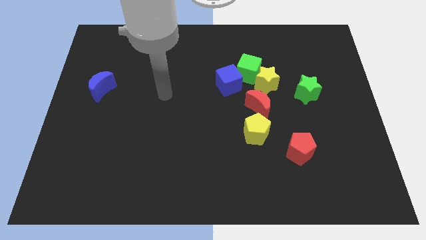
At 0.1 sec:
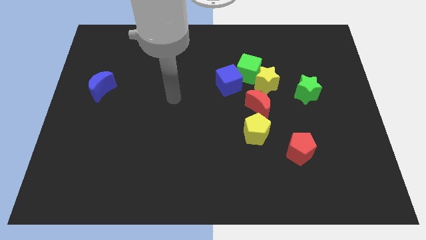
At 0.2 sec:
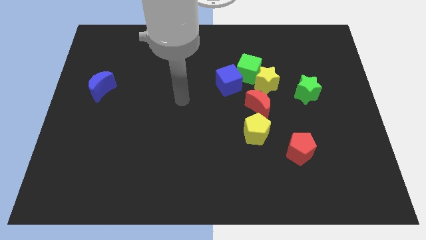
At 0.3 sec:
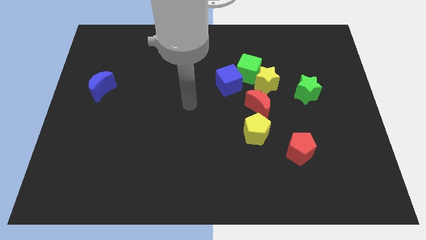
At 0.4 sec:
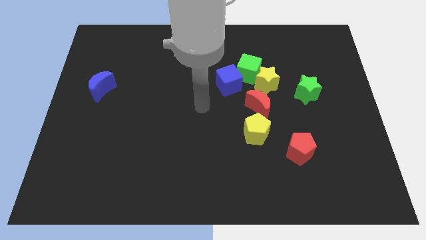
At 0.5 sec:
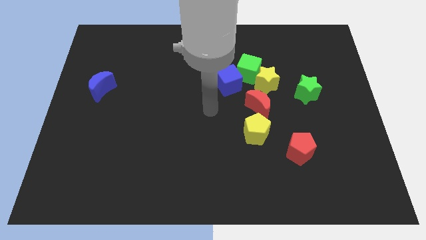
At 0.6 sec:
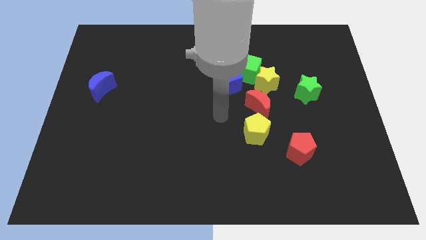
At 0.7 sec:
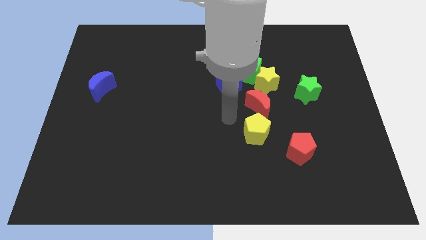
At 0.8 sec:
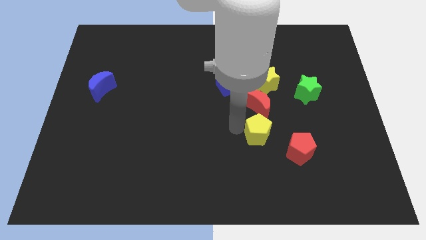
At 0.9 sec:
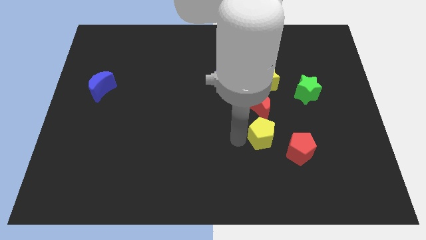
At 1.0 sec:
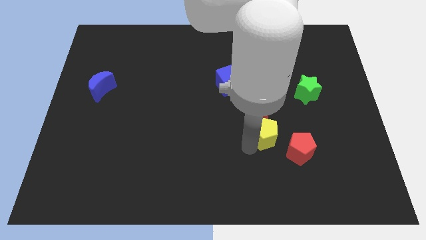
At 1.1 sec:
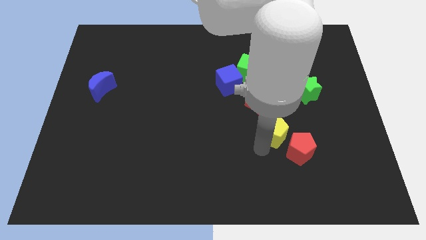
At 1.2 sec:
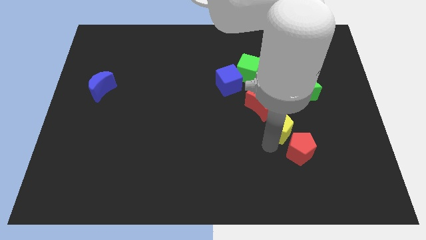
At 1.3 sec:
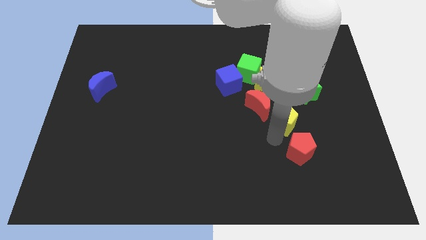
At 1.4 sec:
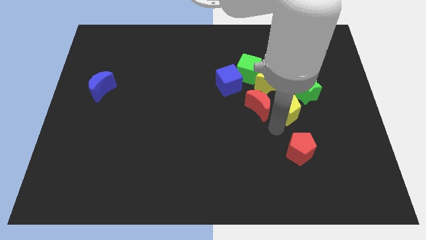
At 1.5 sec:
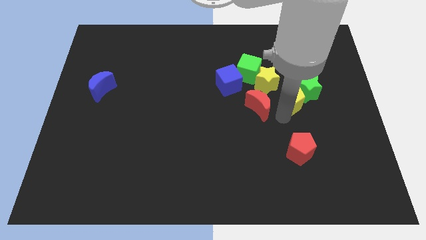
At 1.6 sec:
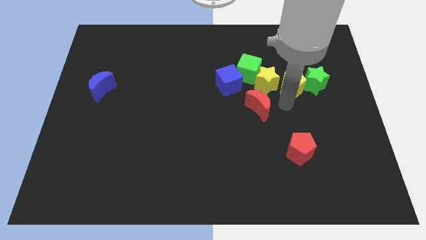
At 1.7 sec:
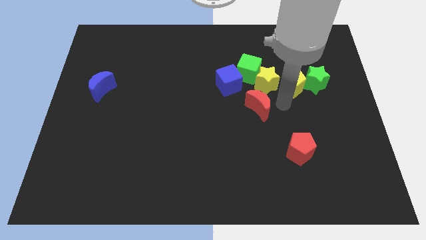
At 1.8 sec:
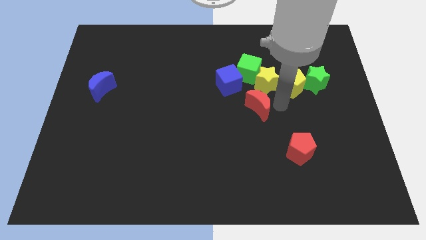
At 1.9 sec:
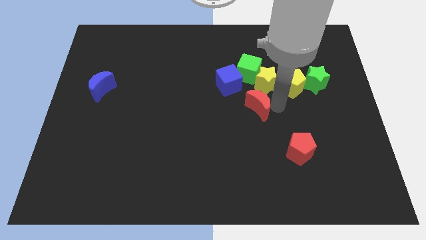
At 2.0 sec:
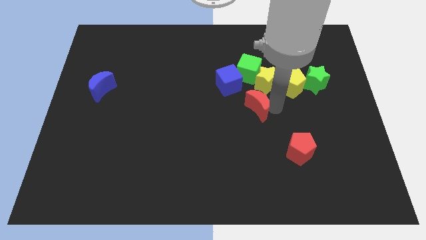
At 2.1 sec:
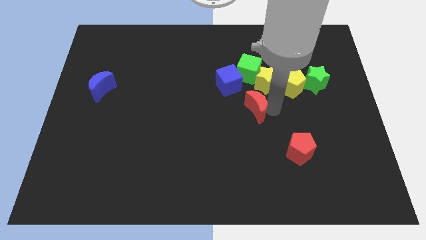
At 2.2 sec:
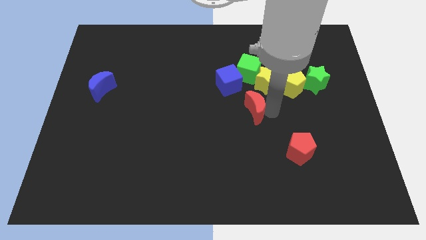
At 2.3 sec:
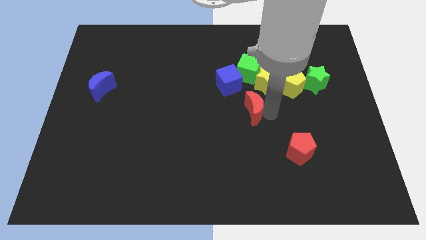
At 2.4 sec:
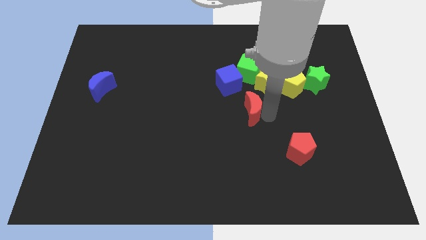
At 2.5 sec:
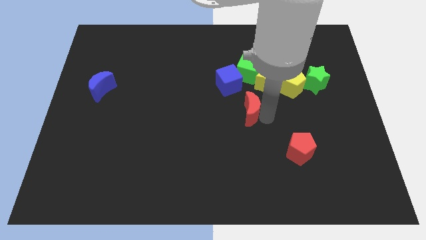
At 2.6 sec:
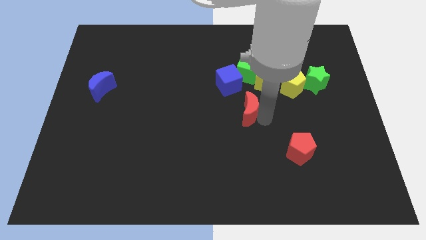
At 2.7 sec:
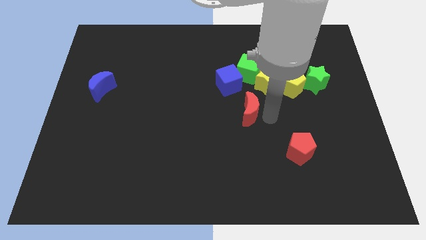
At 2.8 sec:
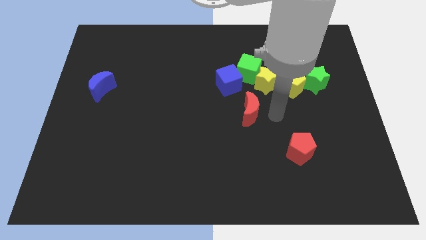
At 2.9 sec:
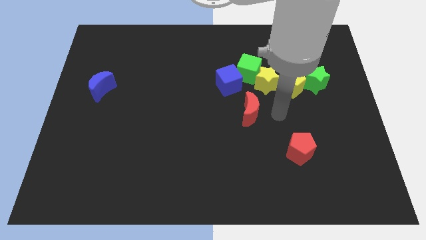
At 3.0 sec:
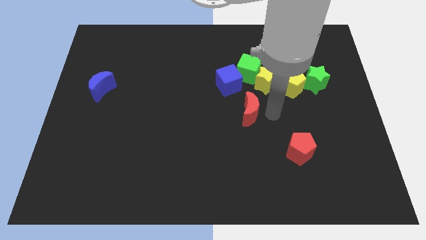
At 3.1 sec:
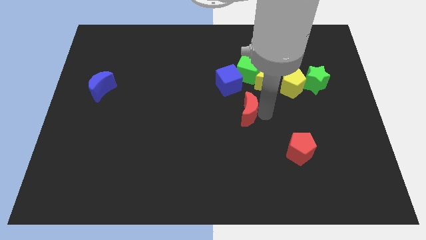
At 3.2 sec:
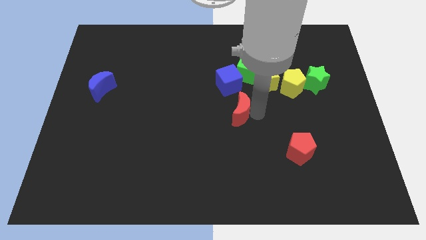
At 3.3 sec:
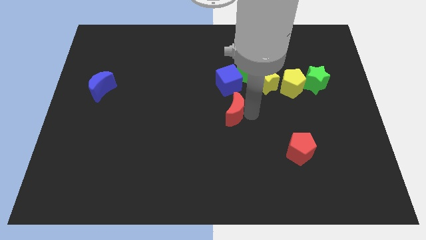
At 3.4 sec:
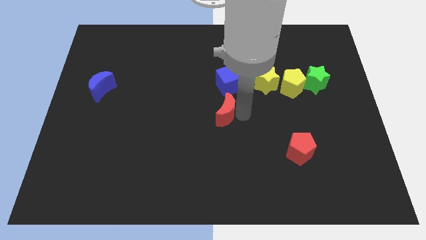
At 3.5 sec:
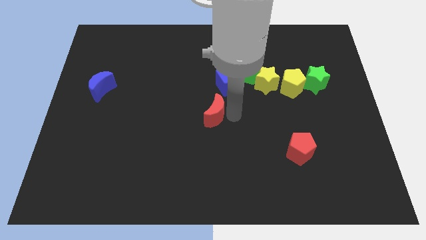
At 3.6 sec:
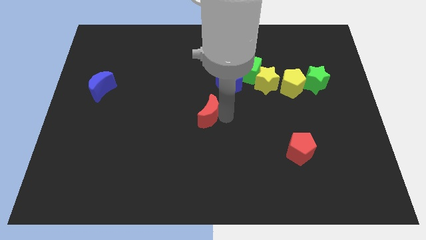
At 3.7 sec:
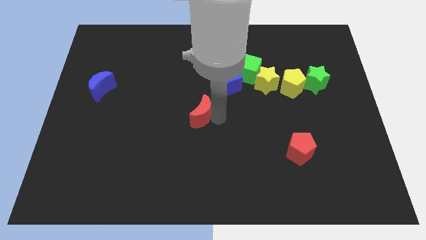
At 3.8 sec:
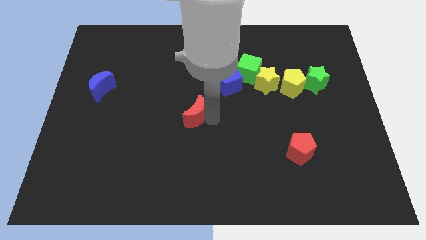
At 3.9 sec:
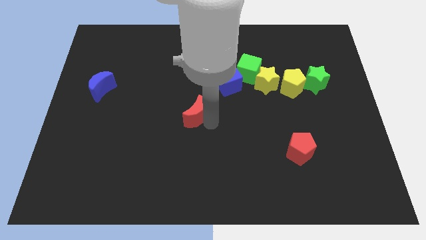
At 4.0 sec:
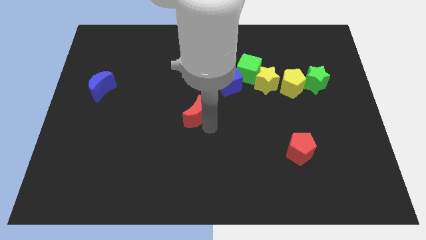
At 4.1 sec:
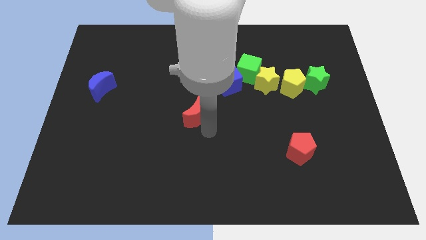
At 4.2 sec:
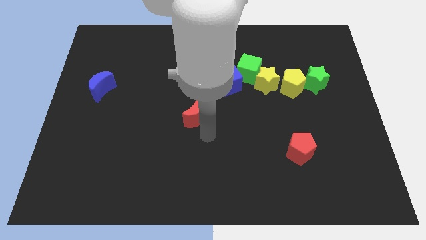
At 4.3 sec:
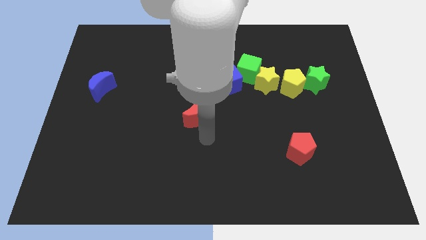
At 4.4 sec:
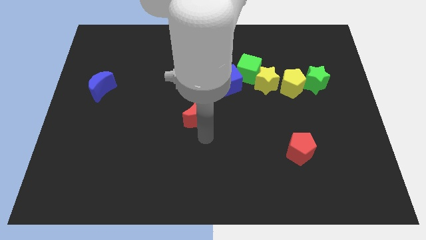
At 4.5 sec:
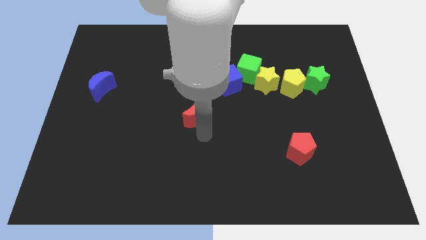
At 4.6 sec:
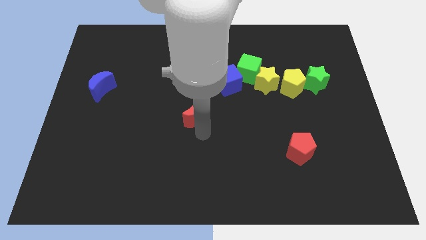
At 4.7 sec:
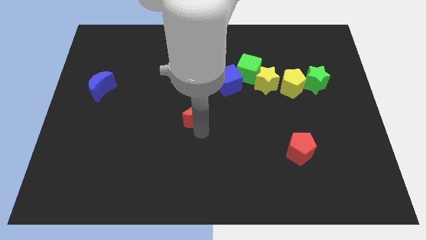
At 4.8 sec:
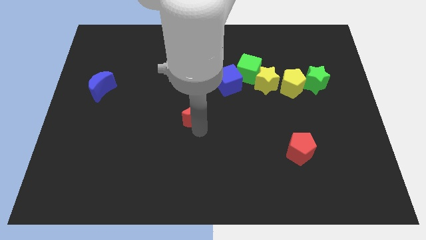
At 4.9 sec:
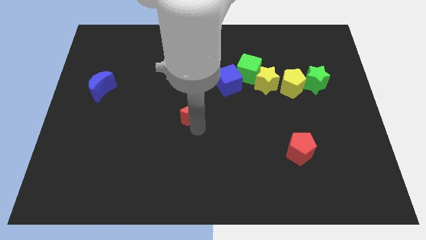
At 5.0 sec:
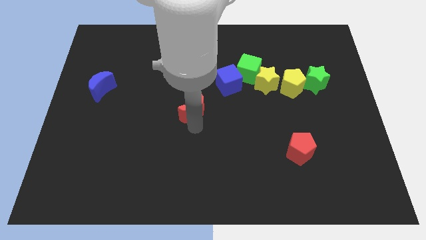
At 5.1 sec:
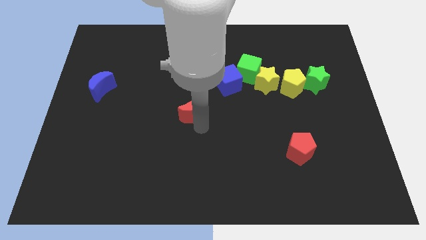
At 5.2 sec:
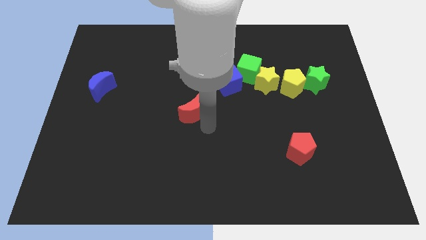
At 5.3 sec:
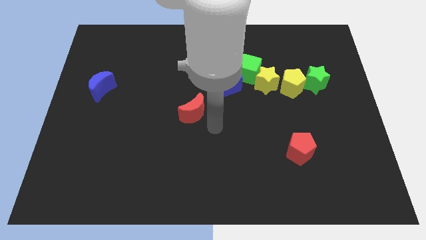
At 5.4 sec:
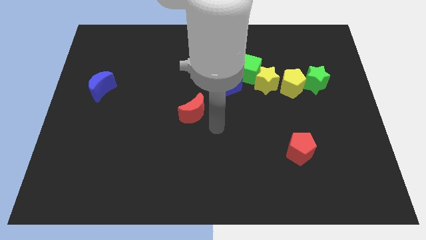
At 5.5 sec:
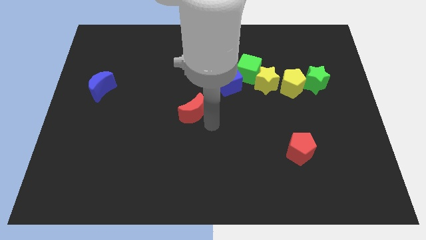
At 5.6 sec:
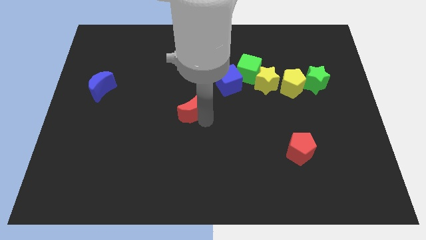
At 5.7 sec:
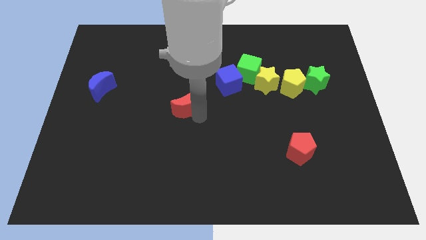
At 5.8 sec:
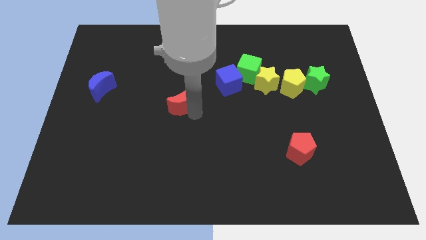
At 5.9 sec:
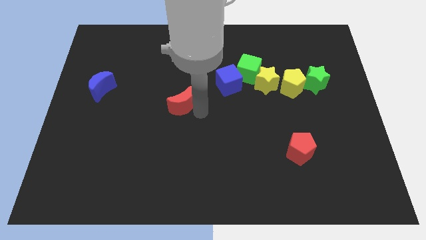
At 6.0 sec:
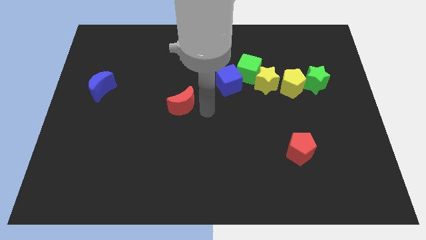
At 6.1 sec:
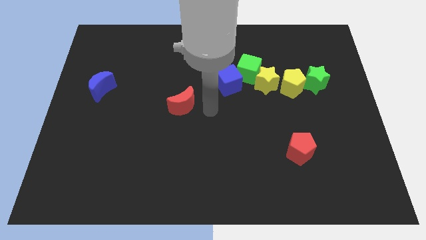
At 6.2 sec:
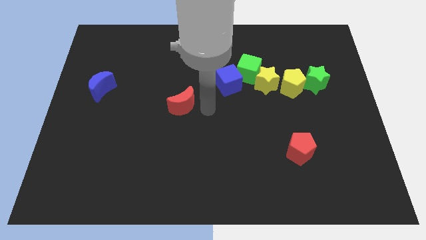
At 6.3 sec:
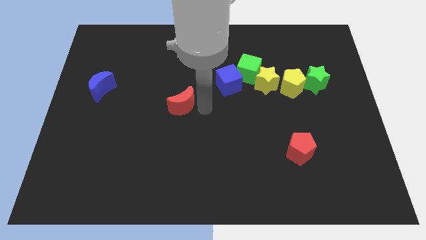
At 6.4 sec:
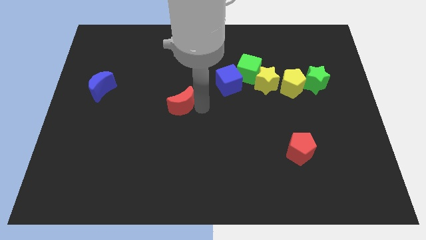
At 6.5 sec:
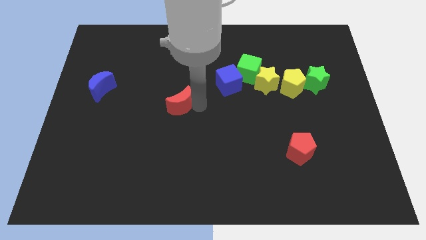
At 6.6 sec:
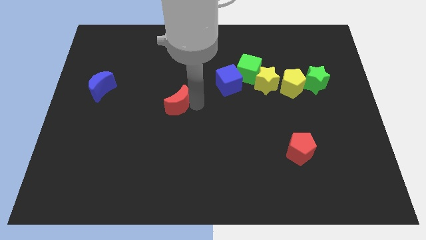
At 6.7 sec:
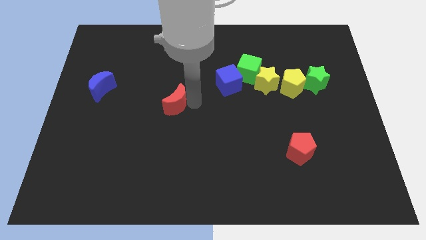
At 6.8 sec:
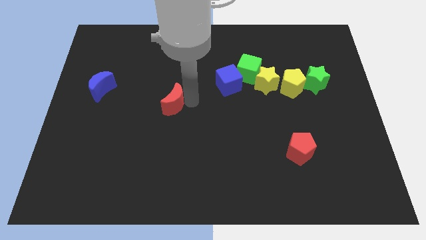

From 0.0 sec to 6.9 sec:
push the red moon to the left

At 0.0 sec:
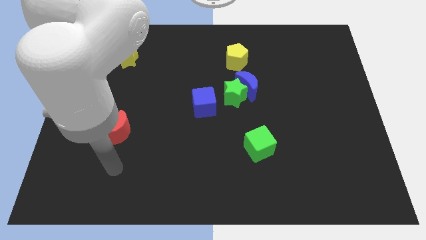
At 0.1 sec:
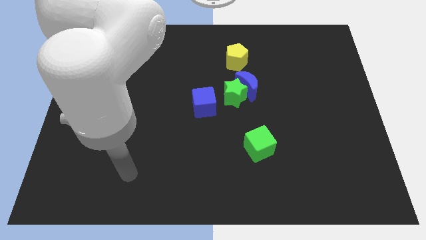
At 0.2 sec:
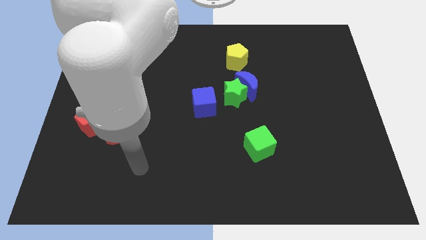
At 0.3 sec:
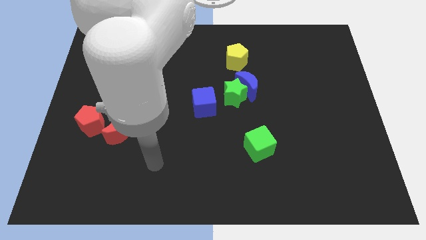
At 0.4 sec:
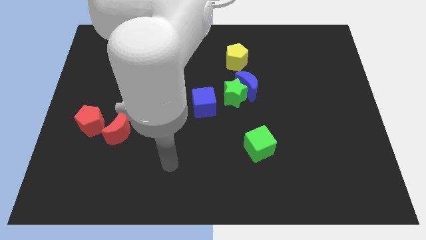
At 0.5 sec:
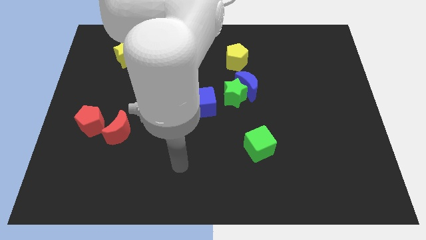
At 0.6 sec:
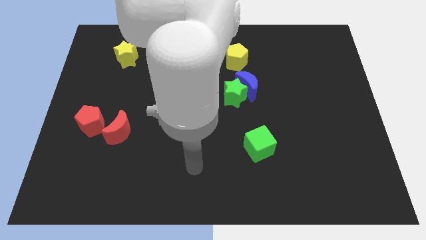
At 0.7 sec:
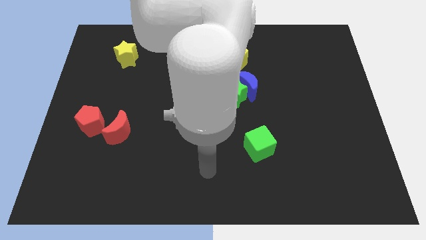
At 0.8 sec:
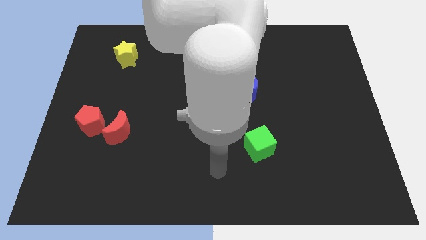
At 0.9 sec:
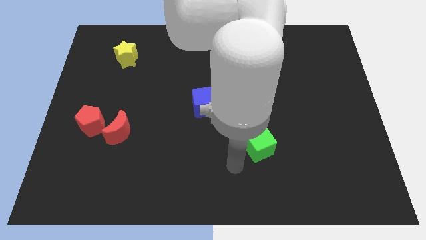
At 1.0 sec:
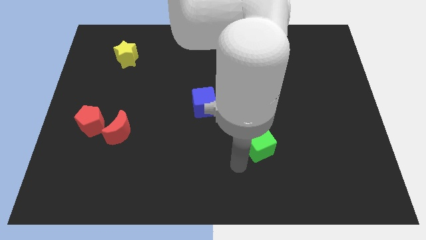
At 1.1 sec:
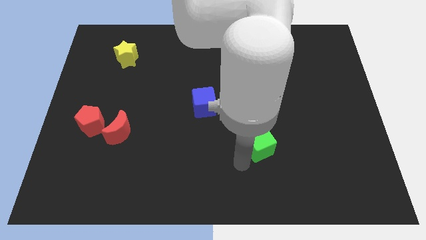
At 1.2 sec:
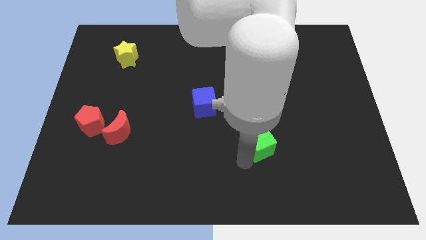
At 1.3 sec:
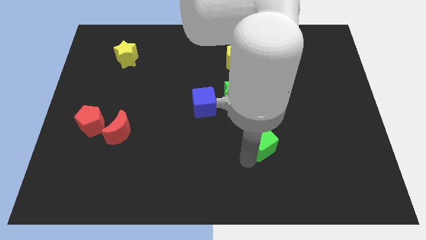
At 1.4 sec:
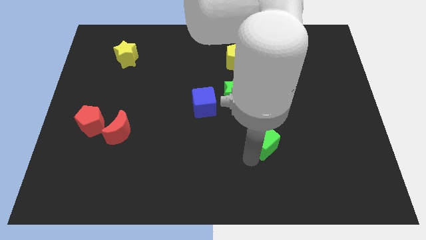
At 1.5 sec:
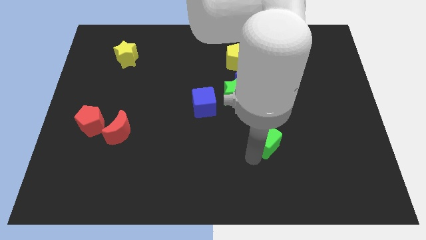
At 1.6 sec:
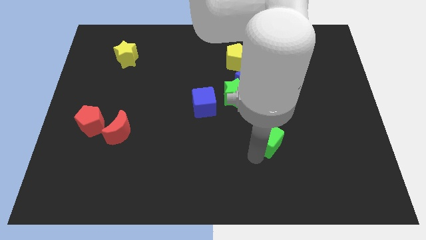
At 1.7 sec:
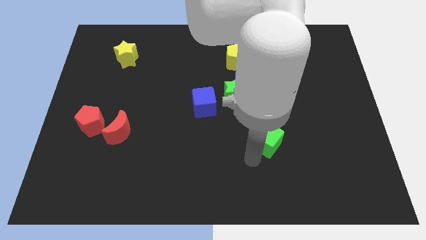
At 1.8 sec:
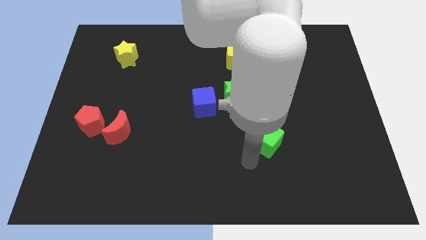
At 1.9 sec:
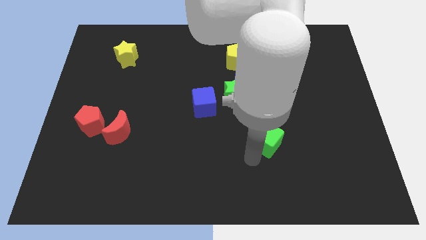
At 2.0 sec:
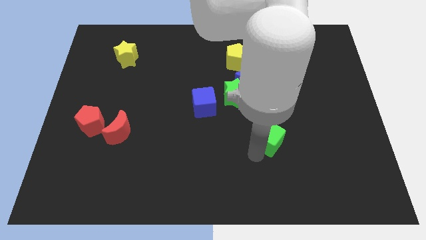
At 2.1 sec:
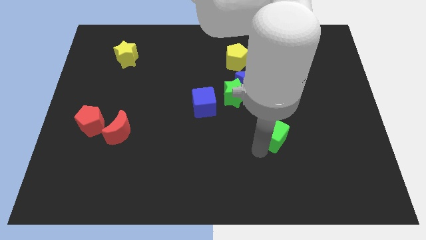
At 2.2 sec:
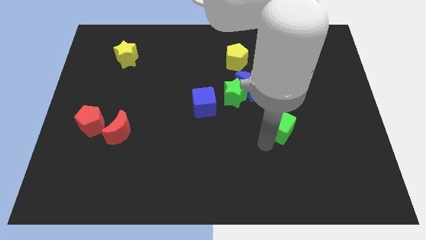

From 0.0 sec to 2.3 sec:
slide the green cube upwards and then right slightly
